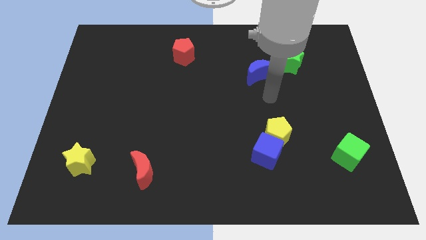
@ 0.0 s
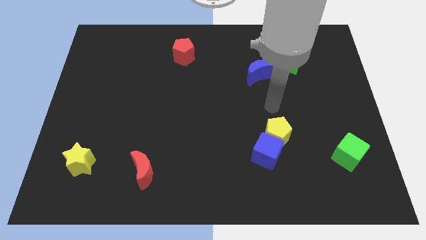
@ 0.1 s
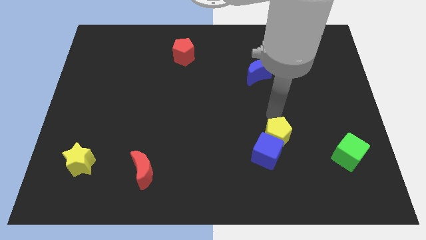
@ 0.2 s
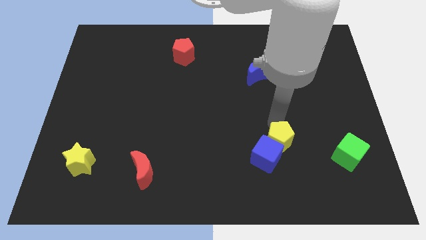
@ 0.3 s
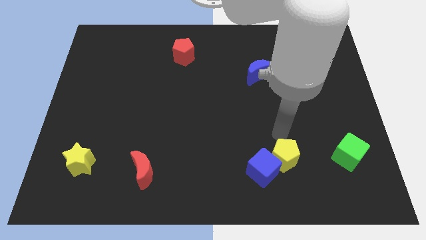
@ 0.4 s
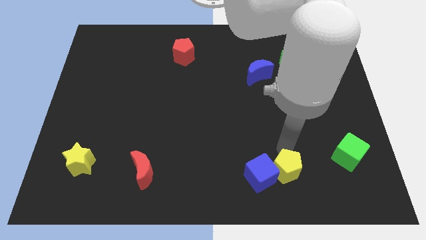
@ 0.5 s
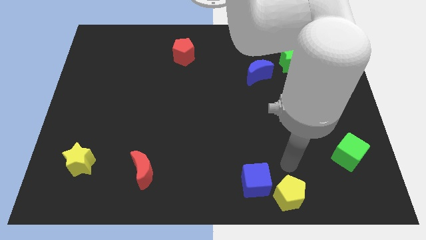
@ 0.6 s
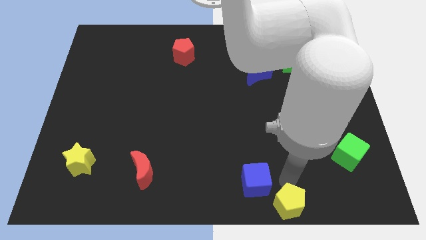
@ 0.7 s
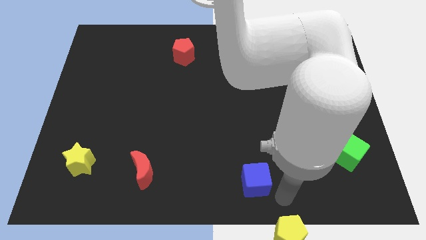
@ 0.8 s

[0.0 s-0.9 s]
pull the blue cube apart from the yellow pentagon

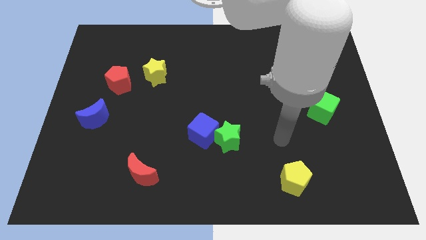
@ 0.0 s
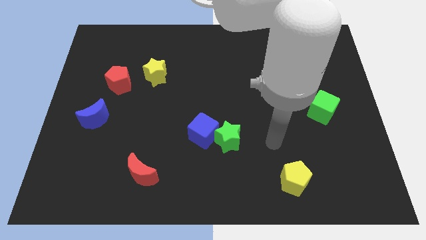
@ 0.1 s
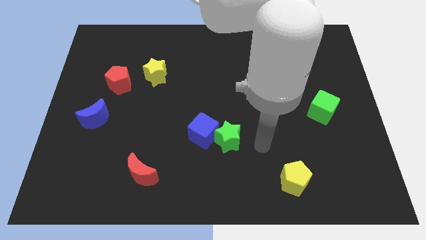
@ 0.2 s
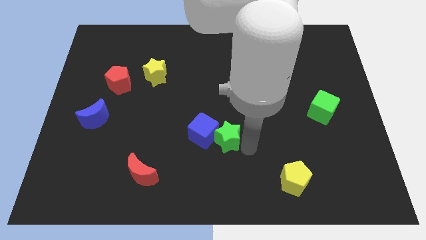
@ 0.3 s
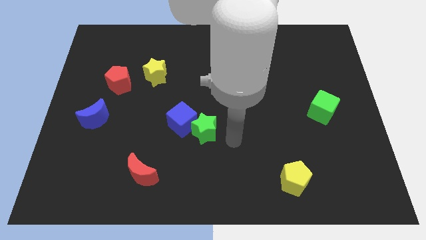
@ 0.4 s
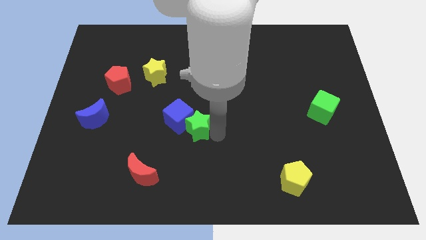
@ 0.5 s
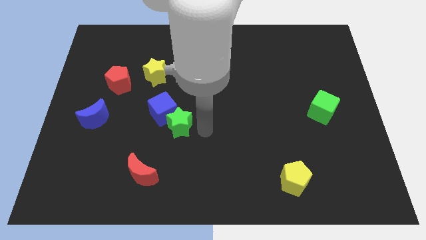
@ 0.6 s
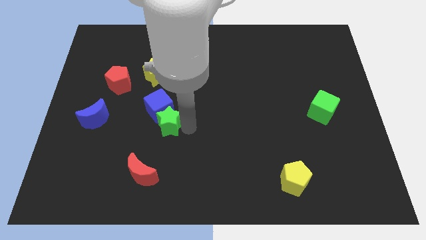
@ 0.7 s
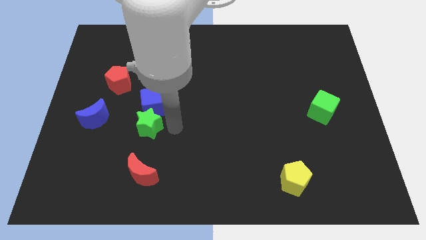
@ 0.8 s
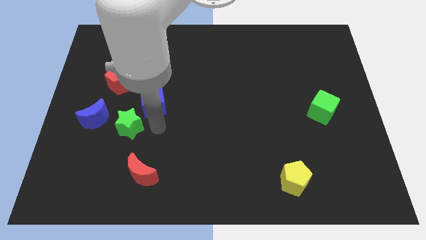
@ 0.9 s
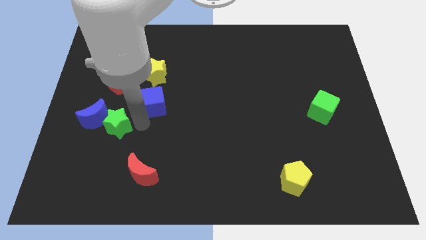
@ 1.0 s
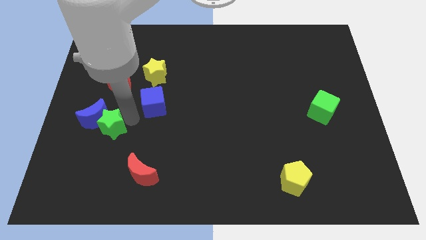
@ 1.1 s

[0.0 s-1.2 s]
pull the blue cube apart from the green star

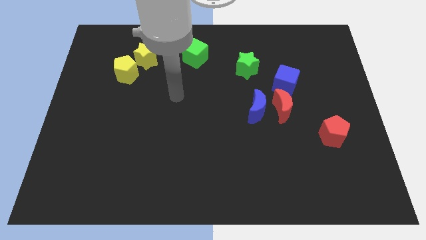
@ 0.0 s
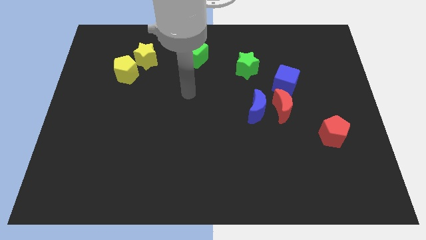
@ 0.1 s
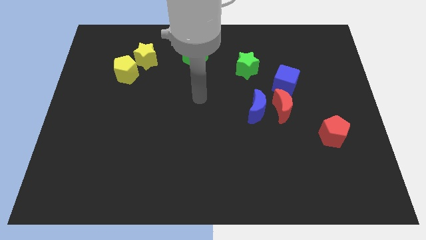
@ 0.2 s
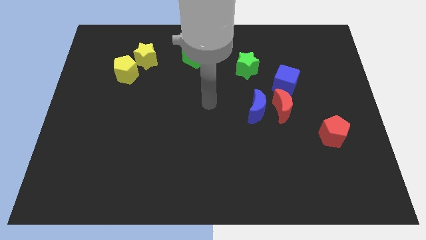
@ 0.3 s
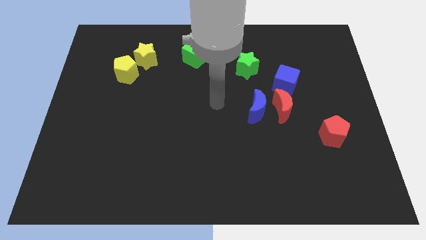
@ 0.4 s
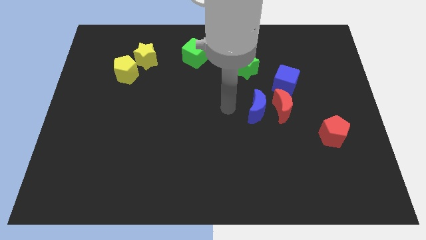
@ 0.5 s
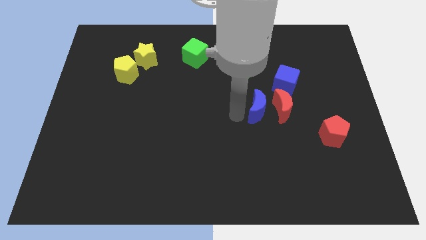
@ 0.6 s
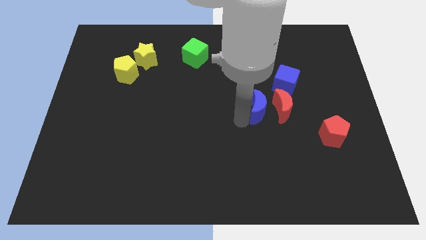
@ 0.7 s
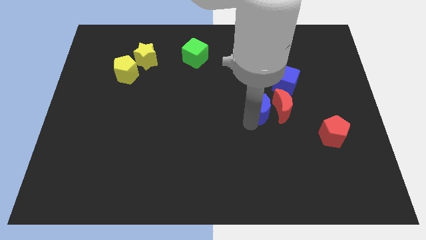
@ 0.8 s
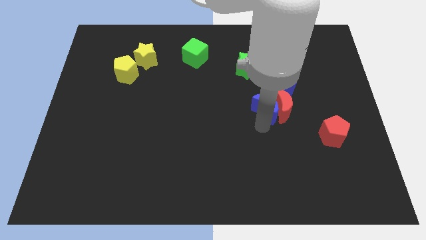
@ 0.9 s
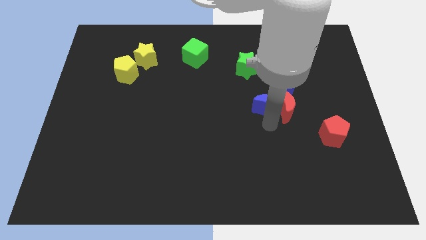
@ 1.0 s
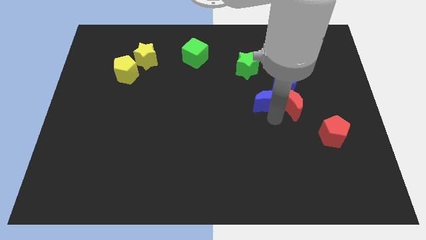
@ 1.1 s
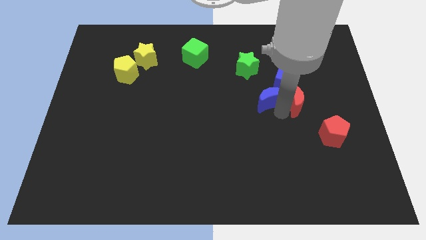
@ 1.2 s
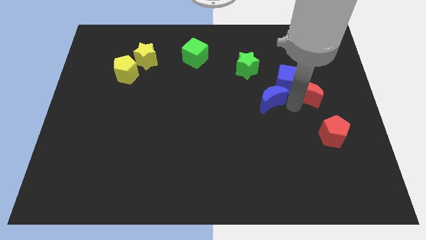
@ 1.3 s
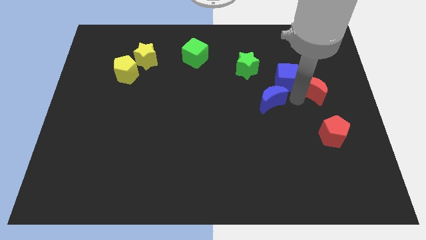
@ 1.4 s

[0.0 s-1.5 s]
pull the blue moon apart from the red moon

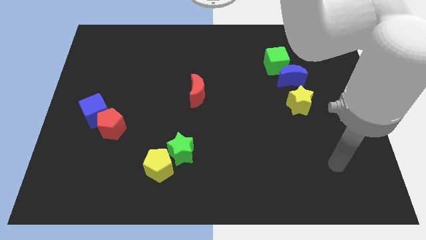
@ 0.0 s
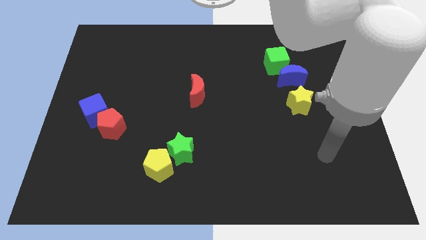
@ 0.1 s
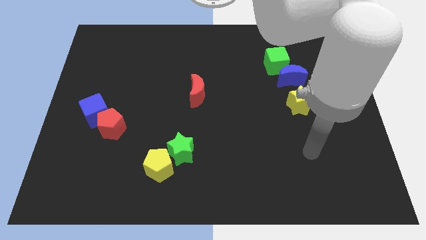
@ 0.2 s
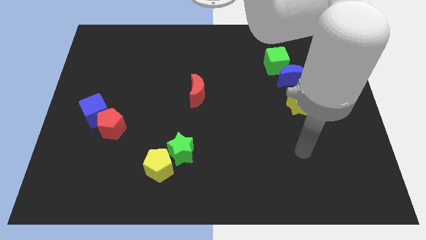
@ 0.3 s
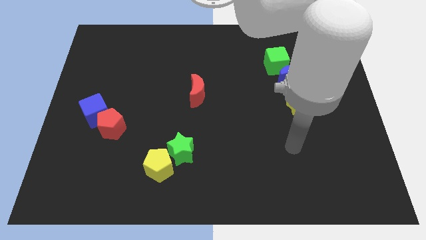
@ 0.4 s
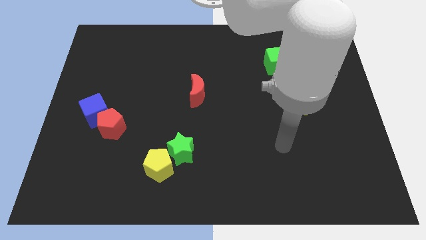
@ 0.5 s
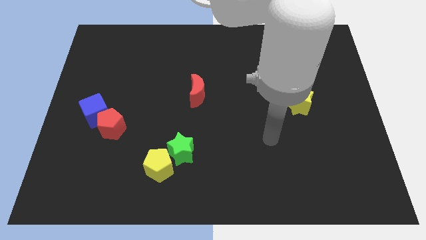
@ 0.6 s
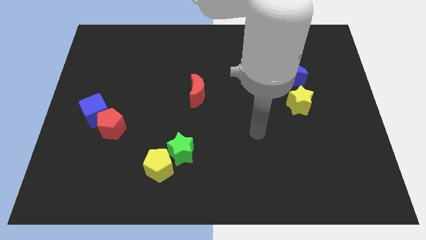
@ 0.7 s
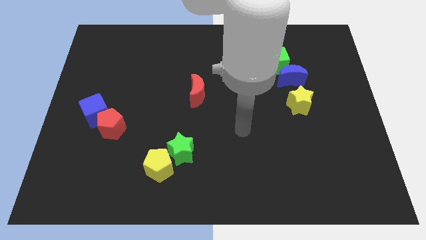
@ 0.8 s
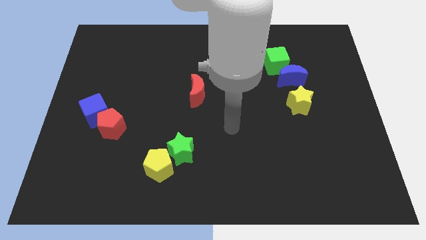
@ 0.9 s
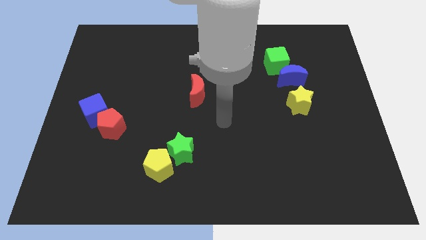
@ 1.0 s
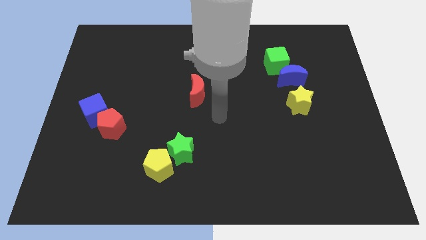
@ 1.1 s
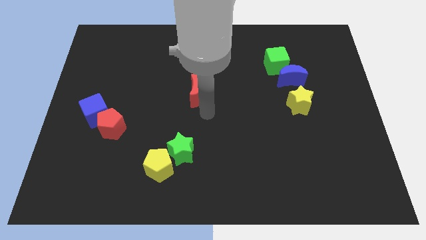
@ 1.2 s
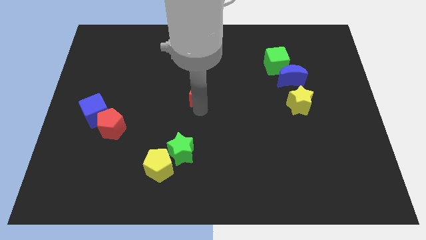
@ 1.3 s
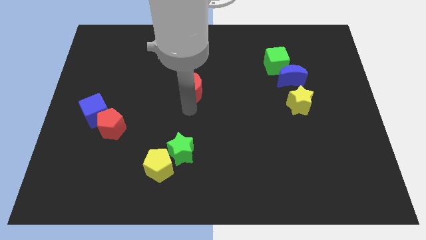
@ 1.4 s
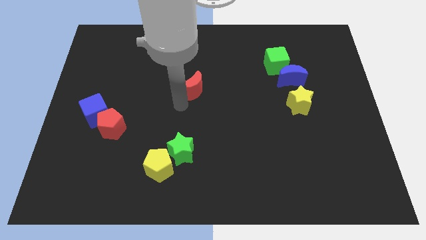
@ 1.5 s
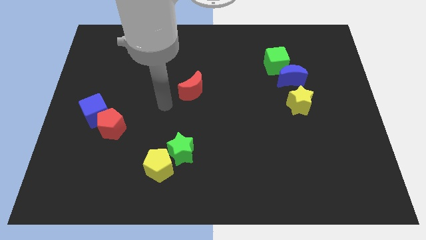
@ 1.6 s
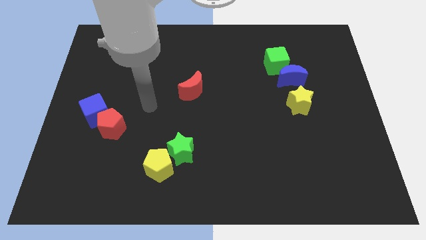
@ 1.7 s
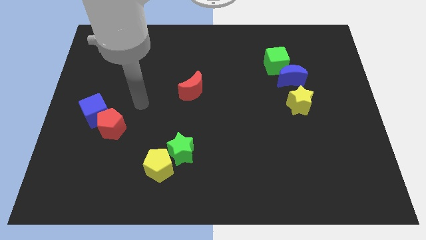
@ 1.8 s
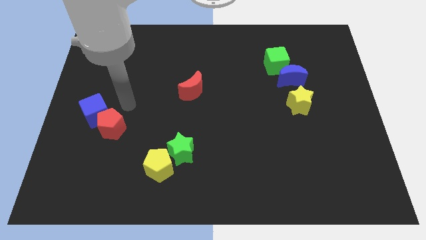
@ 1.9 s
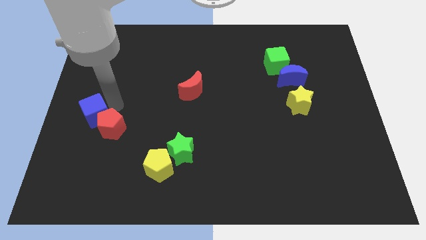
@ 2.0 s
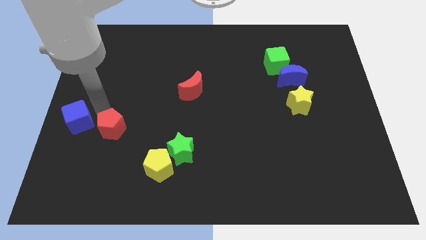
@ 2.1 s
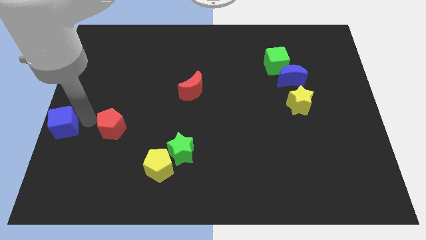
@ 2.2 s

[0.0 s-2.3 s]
pull the red pentagon apart from the blue cube

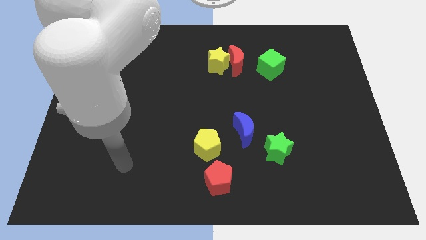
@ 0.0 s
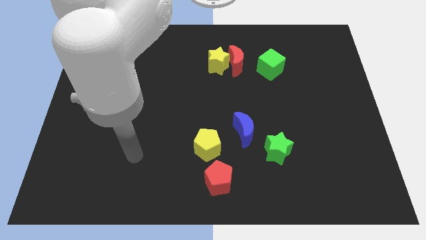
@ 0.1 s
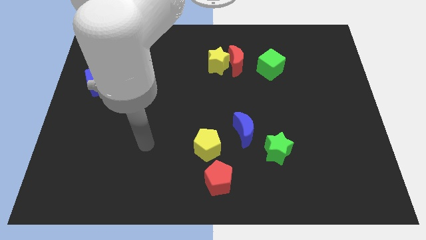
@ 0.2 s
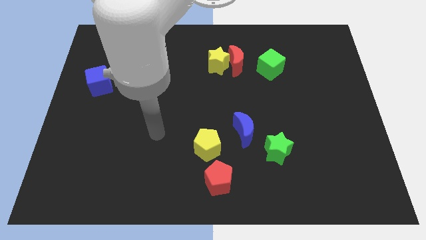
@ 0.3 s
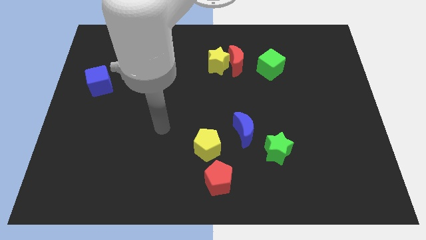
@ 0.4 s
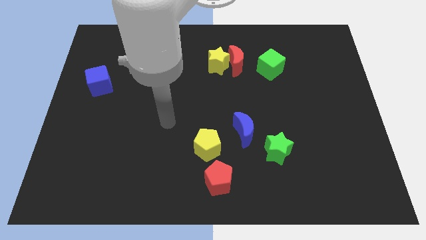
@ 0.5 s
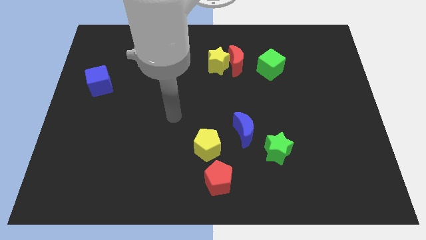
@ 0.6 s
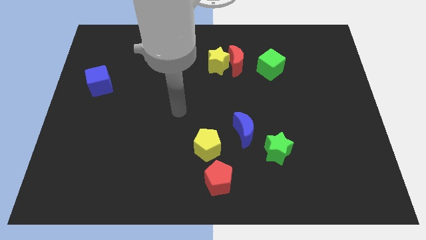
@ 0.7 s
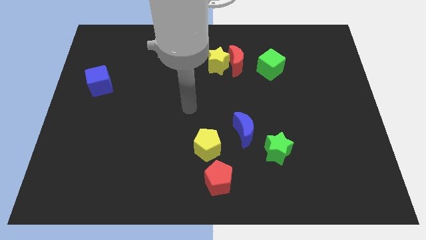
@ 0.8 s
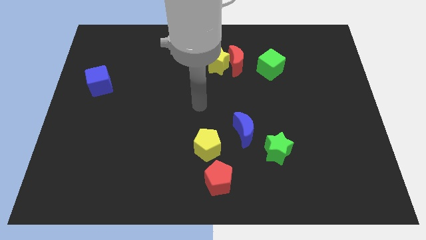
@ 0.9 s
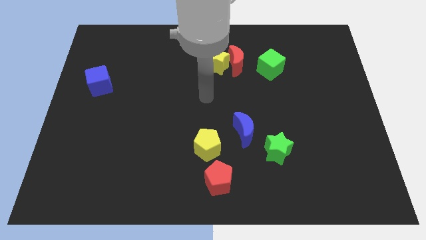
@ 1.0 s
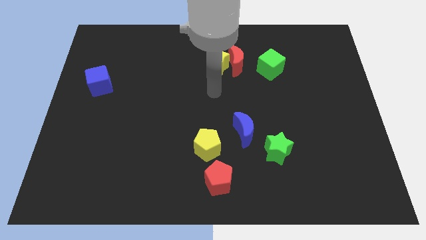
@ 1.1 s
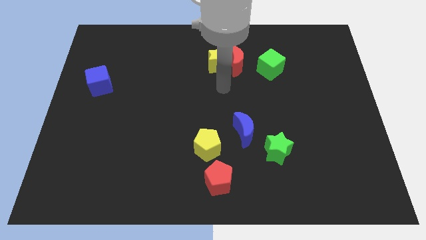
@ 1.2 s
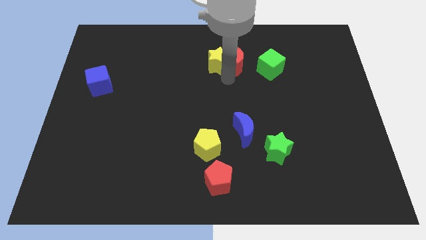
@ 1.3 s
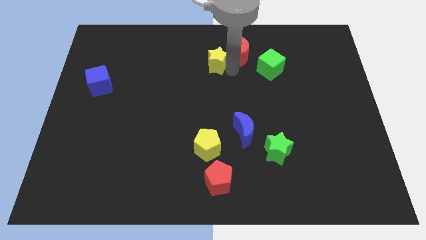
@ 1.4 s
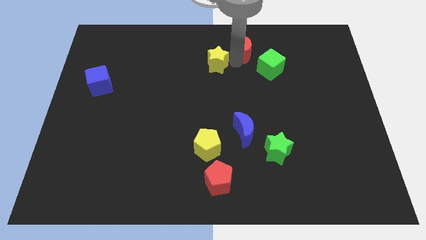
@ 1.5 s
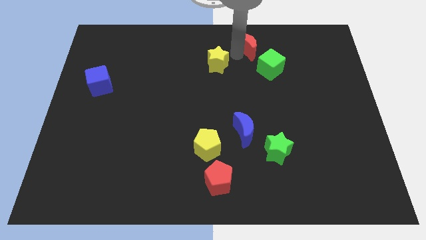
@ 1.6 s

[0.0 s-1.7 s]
pull the yellow star apart from the red moon

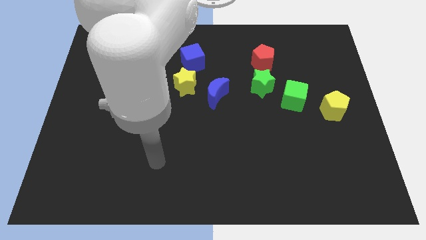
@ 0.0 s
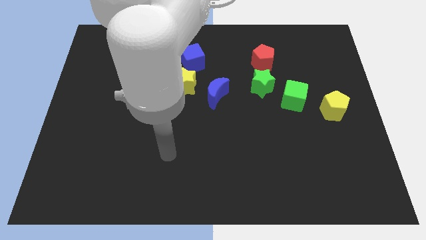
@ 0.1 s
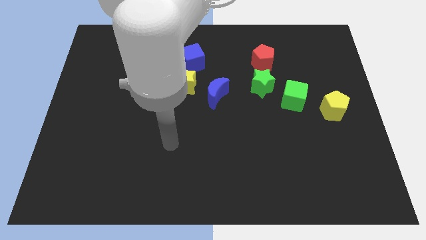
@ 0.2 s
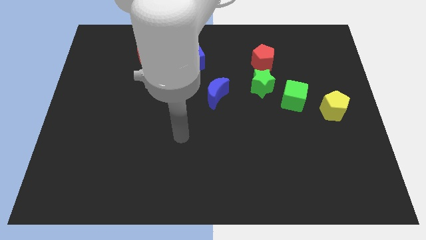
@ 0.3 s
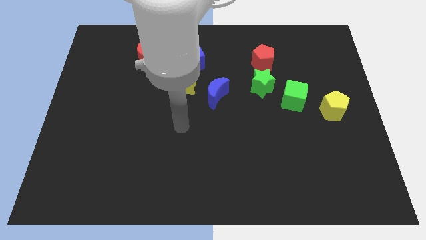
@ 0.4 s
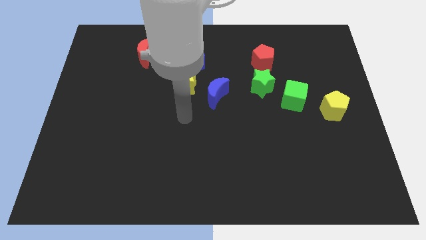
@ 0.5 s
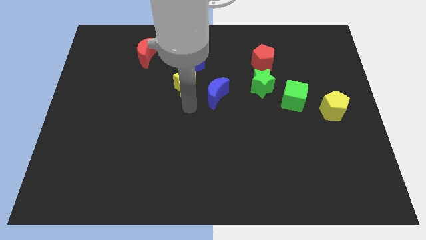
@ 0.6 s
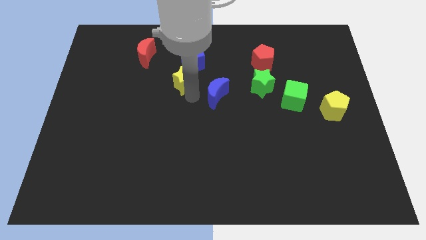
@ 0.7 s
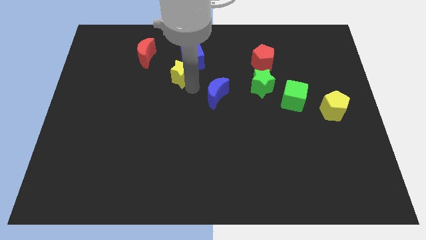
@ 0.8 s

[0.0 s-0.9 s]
pull the blue moon apart from the yellow star

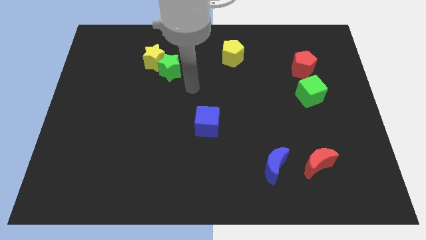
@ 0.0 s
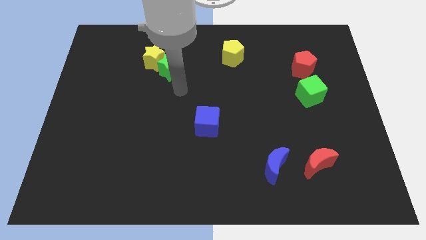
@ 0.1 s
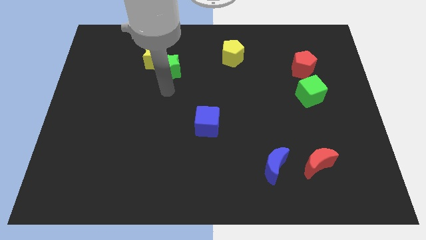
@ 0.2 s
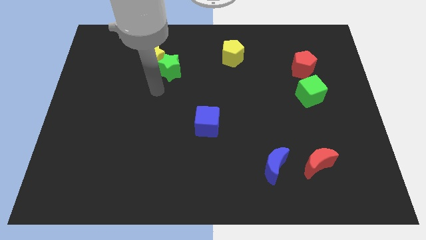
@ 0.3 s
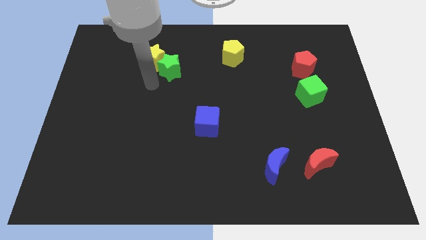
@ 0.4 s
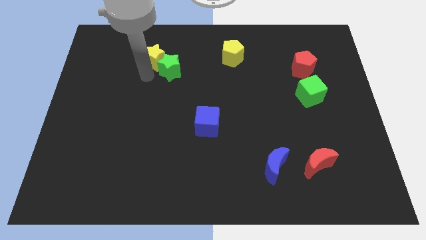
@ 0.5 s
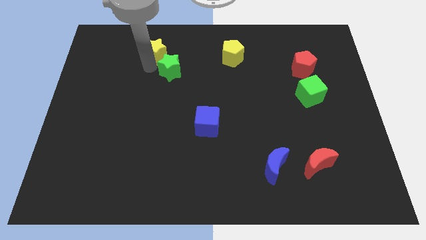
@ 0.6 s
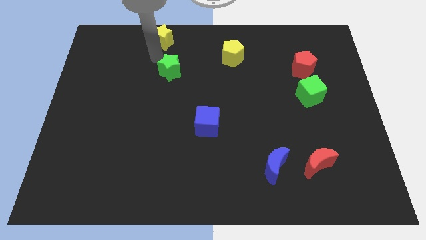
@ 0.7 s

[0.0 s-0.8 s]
pull the green star apart from the yellow star
